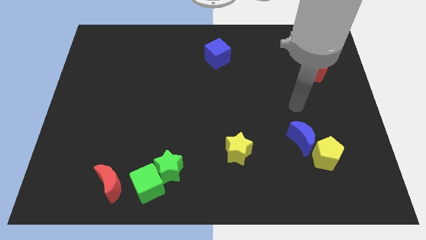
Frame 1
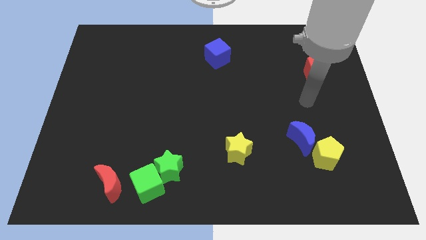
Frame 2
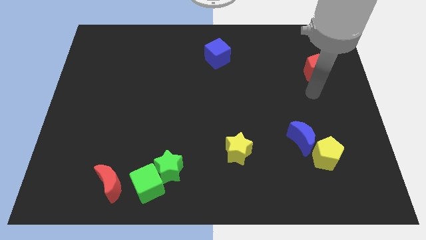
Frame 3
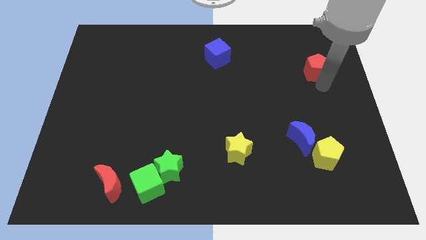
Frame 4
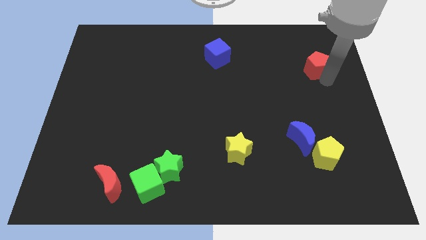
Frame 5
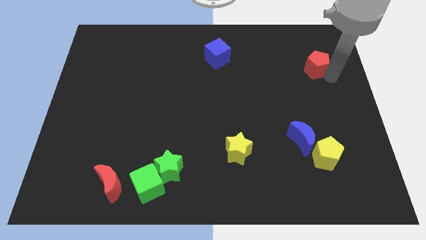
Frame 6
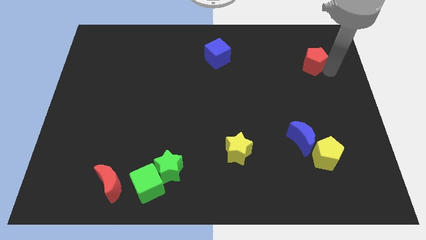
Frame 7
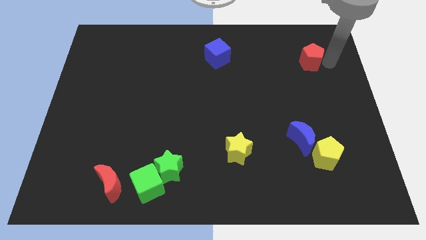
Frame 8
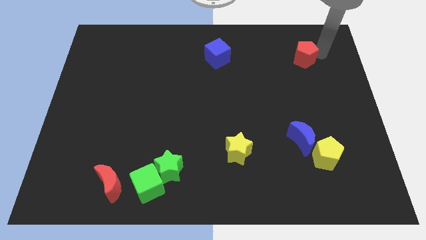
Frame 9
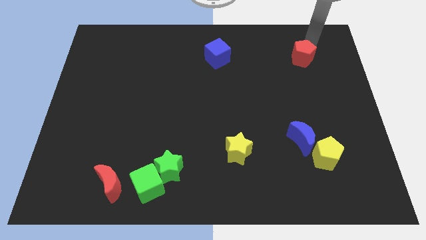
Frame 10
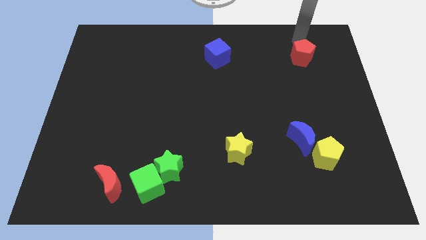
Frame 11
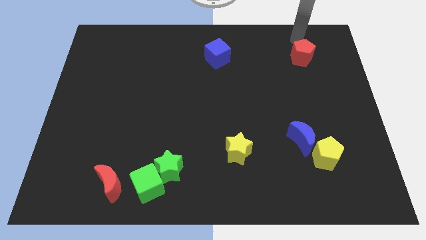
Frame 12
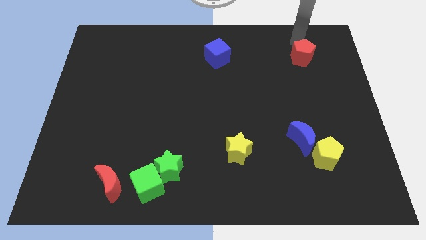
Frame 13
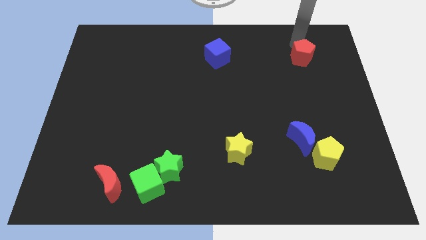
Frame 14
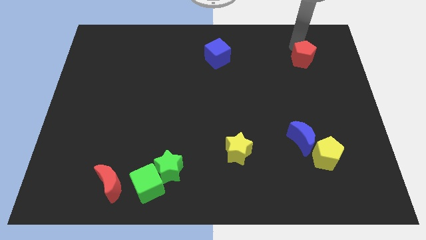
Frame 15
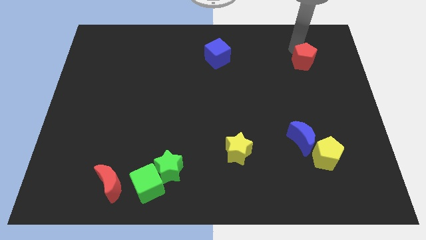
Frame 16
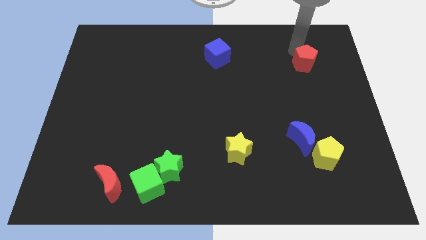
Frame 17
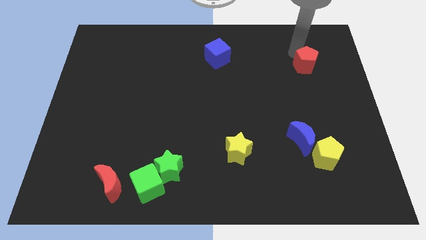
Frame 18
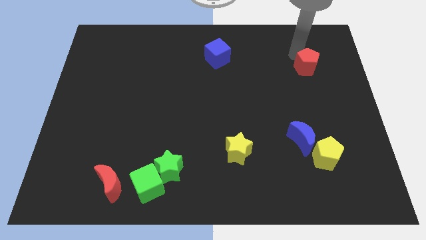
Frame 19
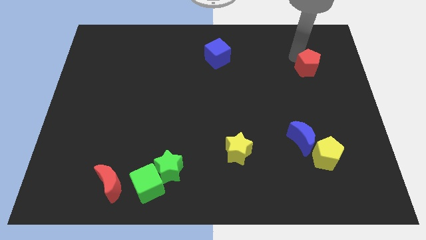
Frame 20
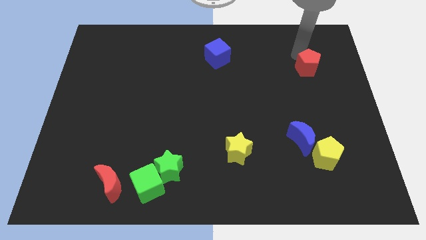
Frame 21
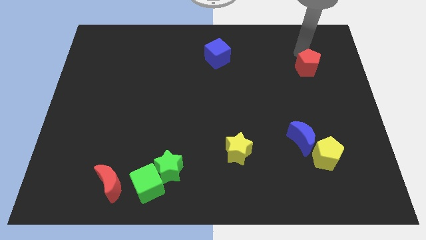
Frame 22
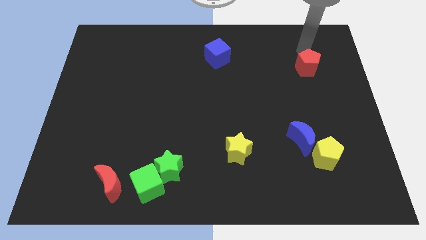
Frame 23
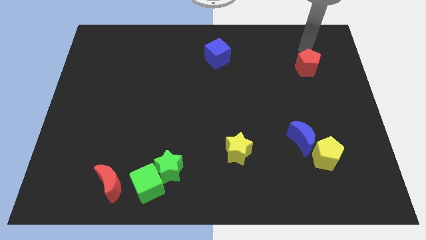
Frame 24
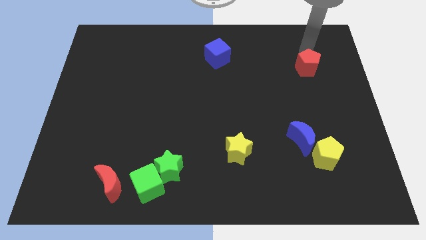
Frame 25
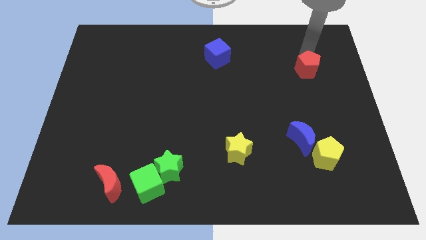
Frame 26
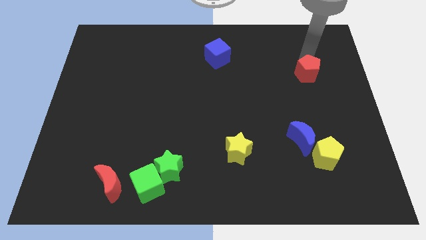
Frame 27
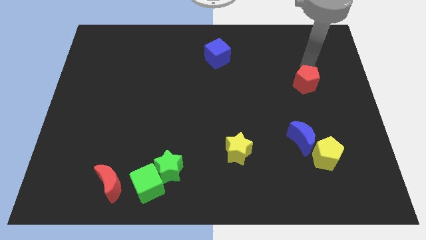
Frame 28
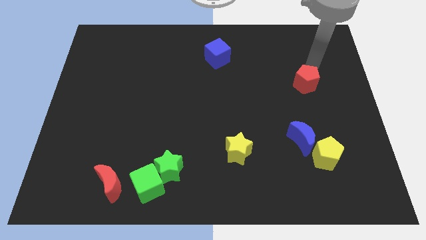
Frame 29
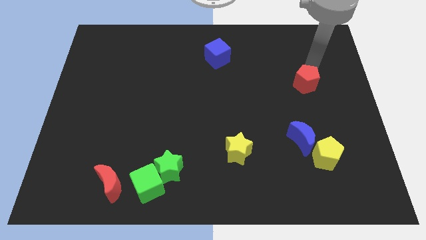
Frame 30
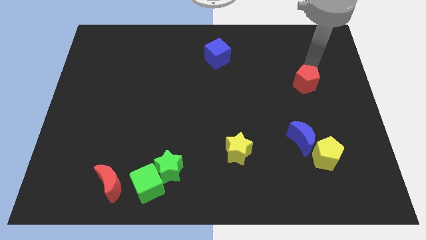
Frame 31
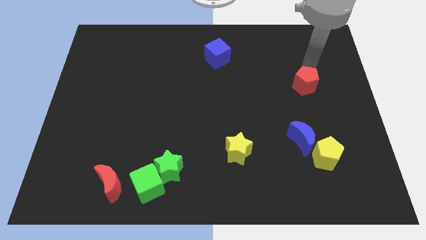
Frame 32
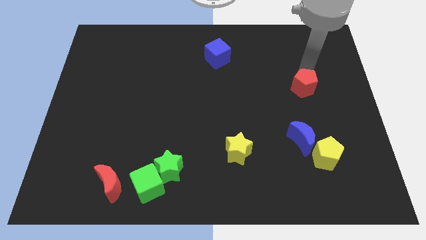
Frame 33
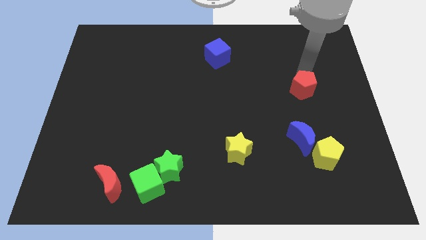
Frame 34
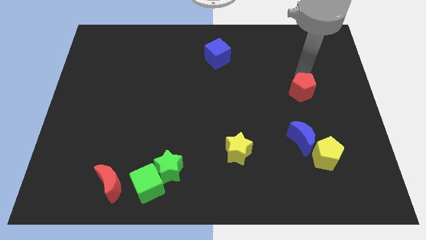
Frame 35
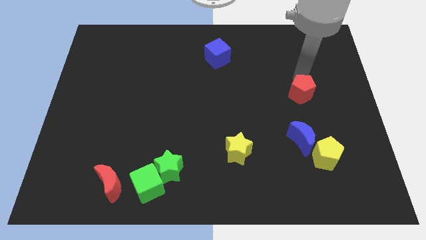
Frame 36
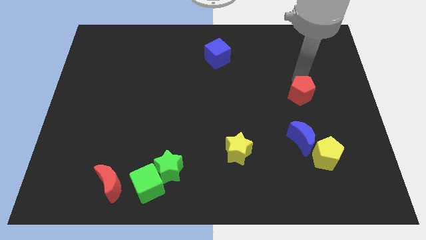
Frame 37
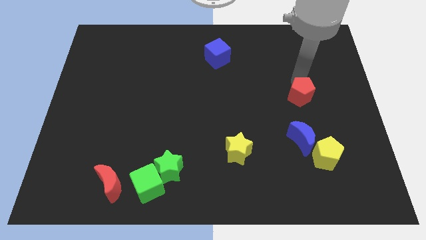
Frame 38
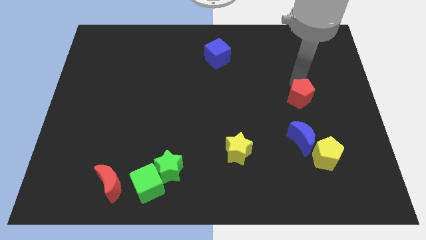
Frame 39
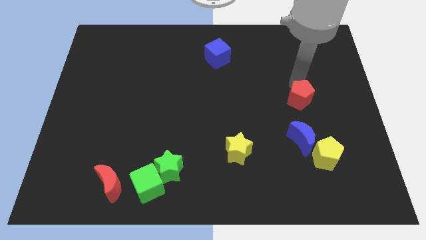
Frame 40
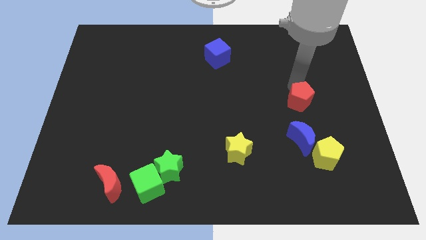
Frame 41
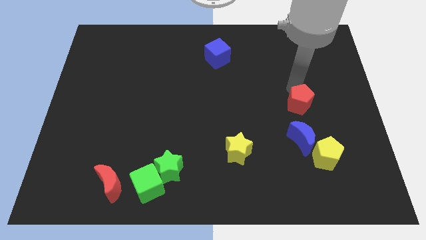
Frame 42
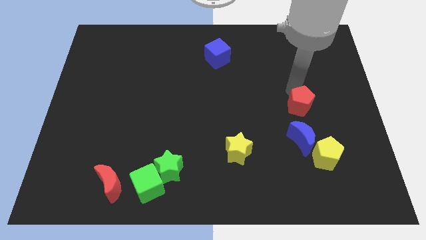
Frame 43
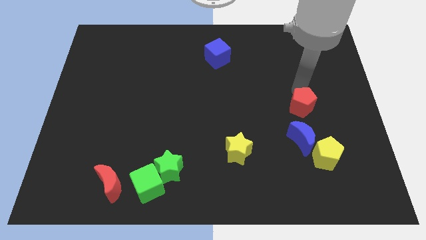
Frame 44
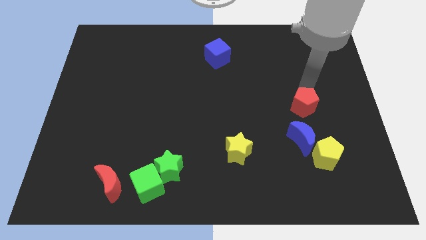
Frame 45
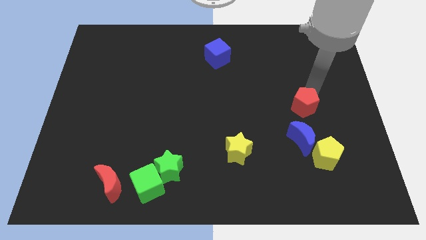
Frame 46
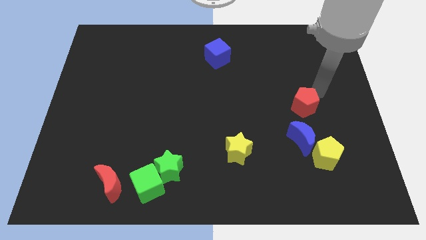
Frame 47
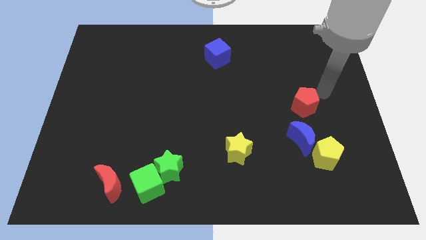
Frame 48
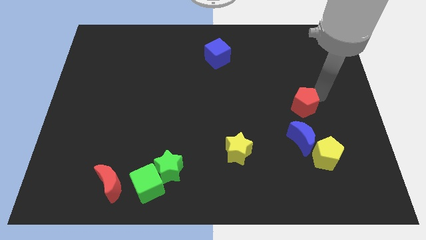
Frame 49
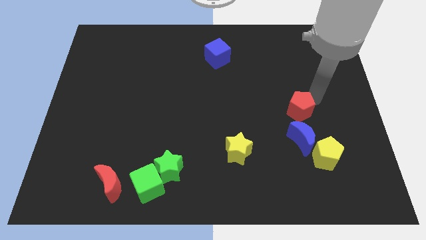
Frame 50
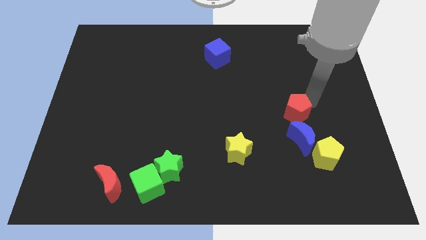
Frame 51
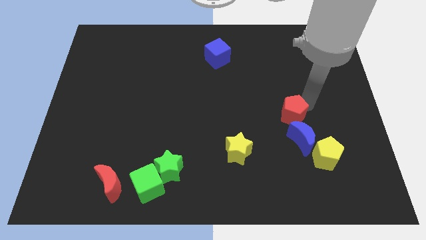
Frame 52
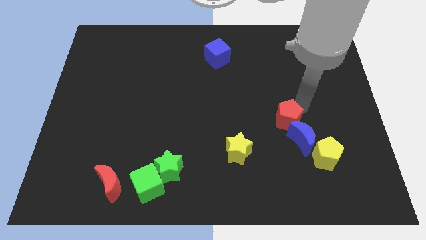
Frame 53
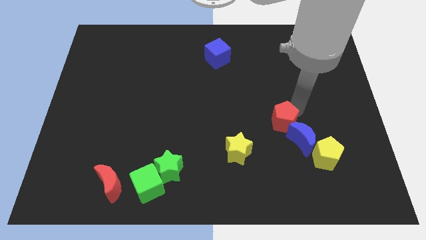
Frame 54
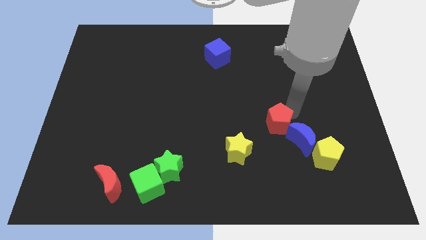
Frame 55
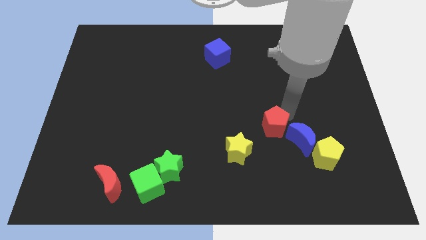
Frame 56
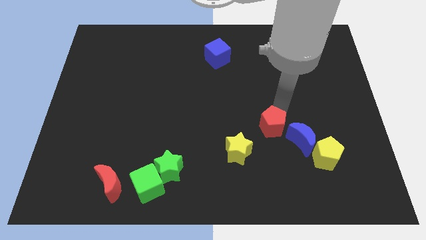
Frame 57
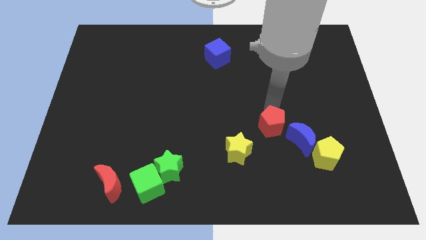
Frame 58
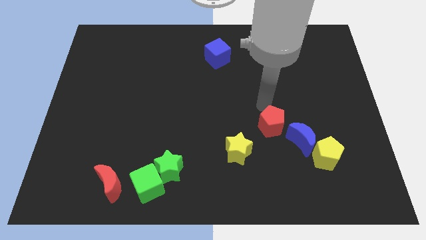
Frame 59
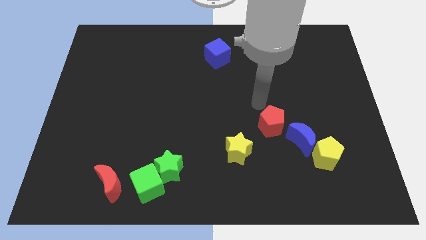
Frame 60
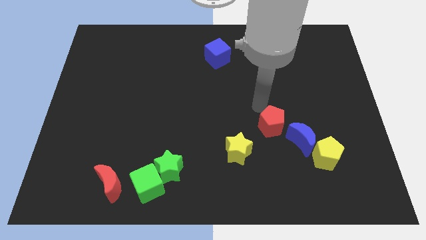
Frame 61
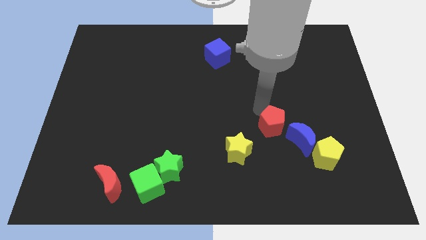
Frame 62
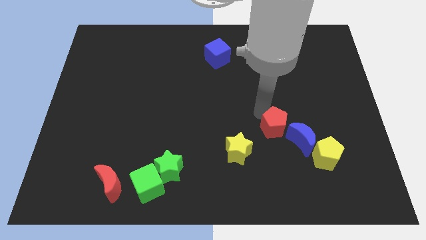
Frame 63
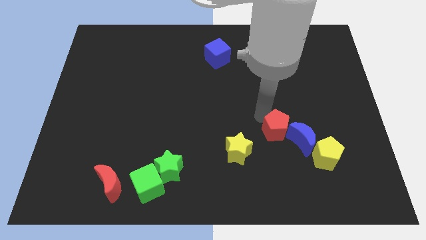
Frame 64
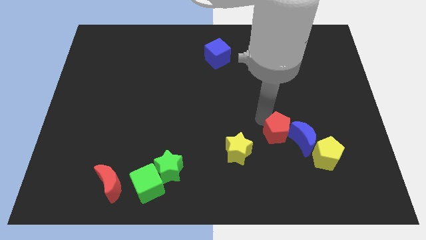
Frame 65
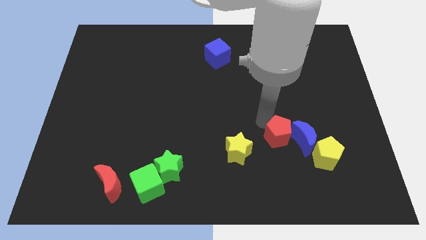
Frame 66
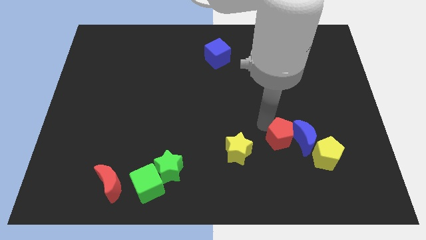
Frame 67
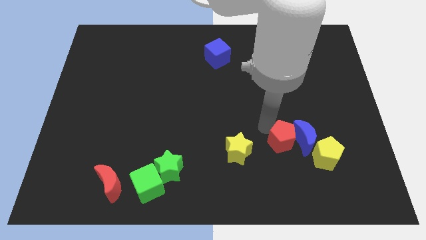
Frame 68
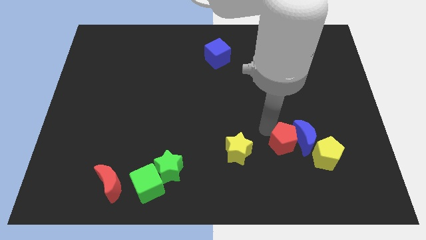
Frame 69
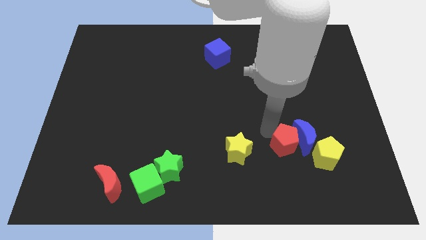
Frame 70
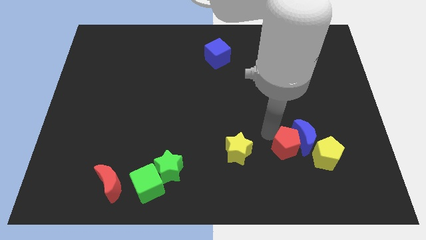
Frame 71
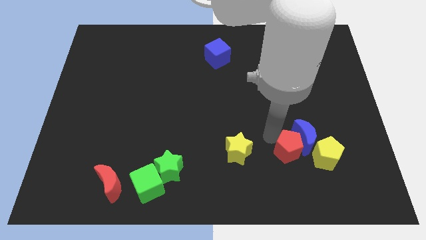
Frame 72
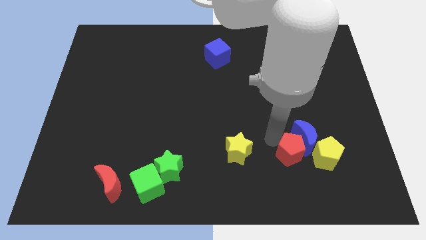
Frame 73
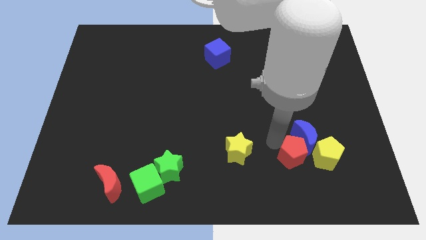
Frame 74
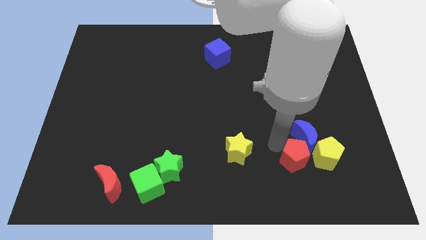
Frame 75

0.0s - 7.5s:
slide the red pentagon diagonally down and to the left of the yellow pentagon

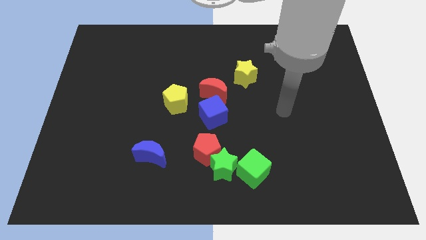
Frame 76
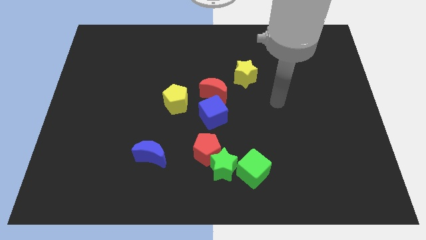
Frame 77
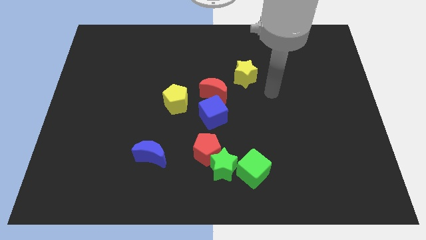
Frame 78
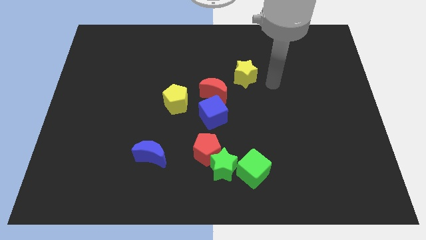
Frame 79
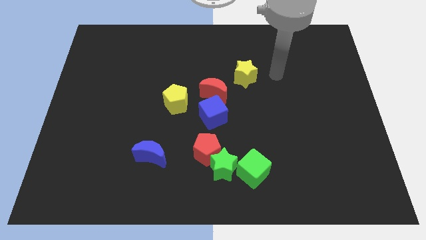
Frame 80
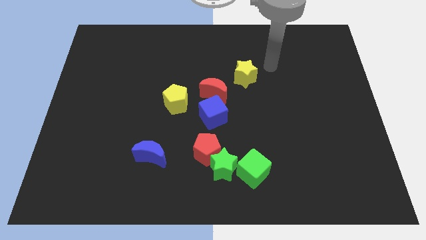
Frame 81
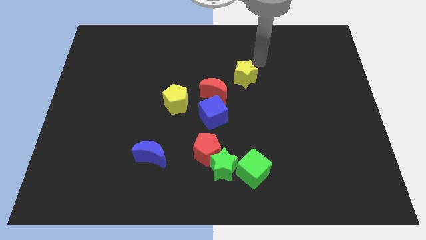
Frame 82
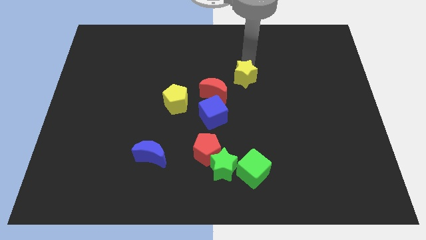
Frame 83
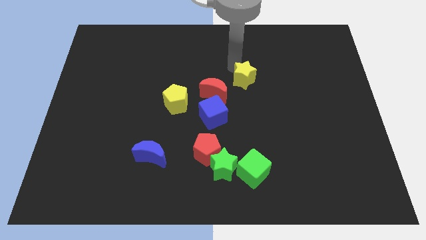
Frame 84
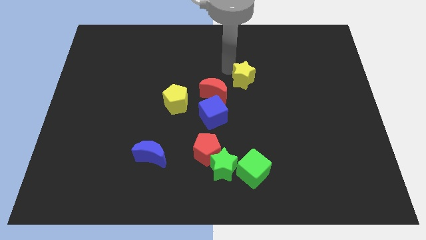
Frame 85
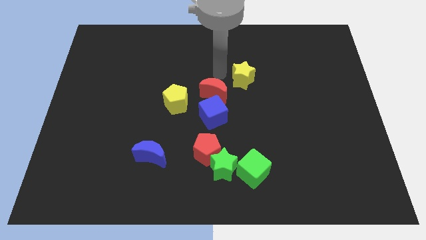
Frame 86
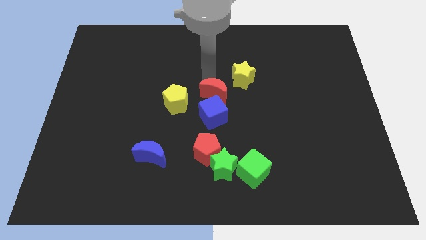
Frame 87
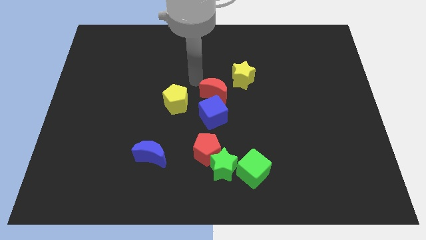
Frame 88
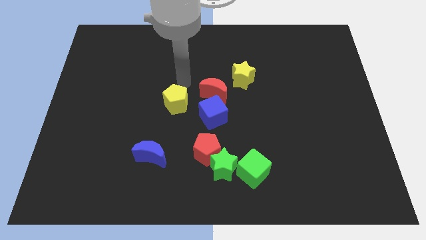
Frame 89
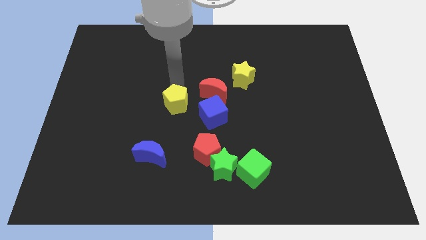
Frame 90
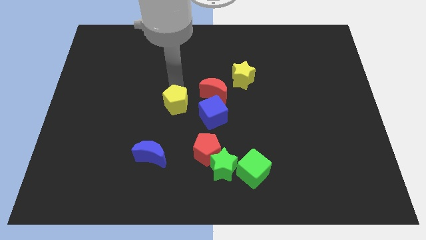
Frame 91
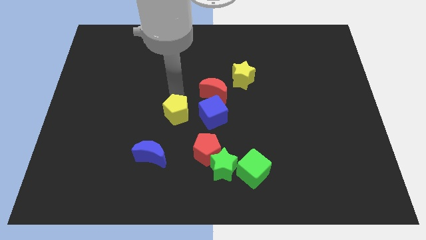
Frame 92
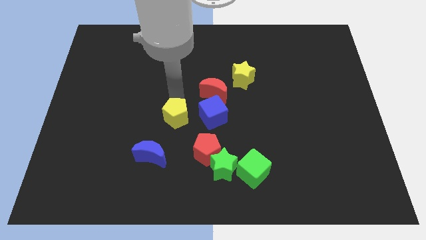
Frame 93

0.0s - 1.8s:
move the yellow pentagon to the top right side of the blue moon
